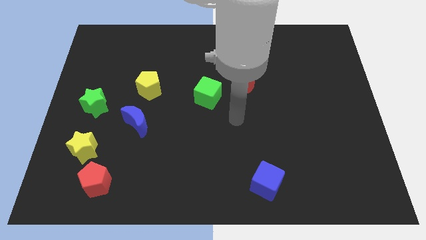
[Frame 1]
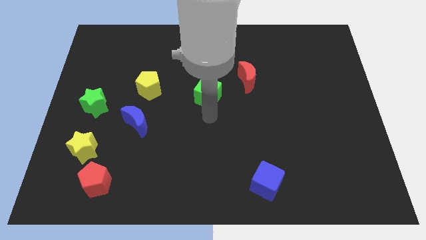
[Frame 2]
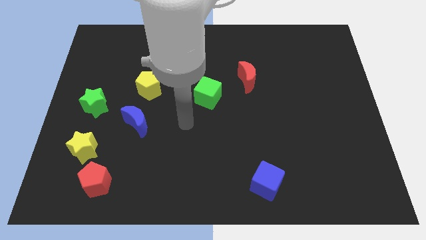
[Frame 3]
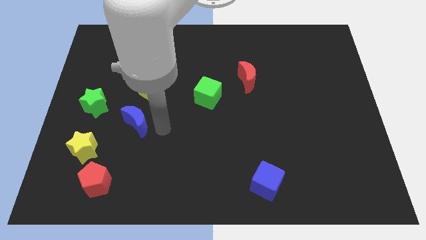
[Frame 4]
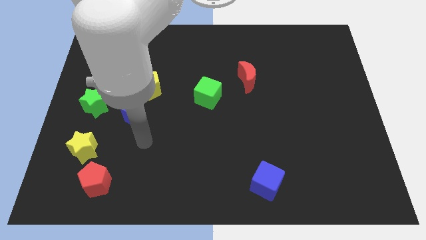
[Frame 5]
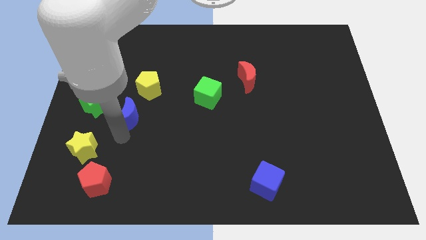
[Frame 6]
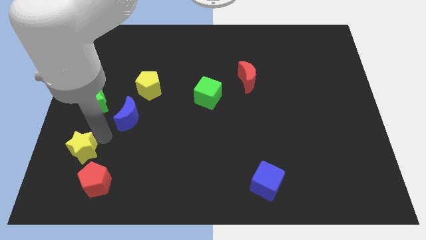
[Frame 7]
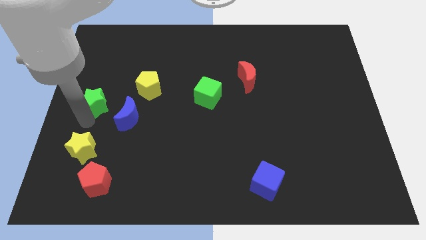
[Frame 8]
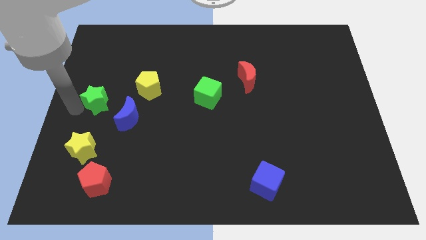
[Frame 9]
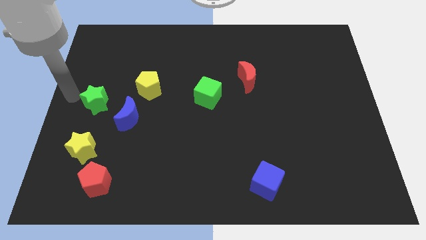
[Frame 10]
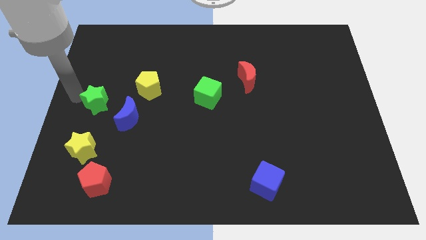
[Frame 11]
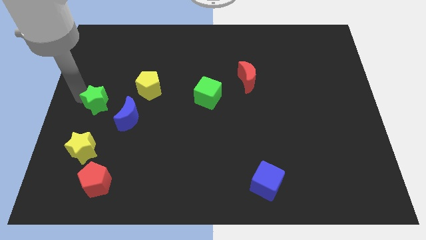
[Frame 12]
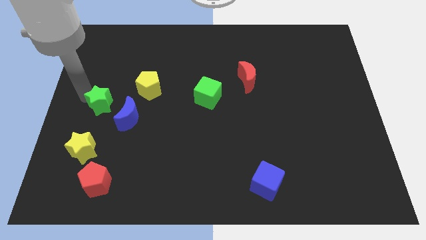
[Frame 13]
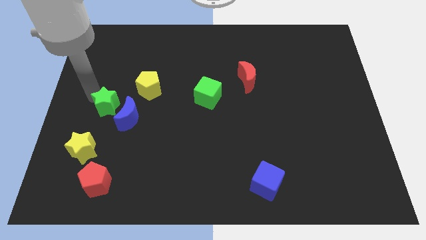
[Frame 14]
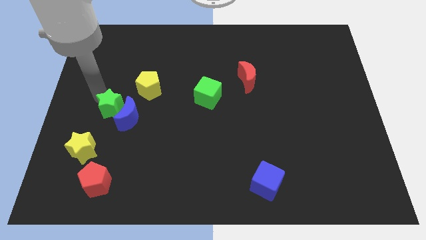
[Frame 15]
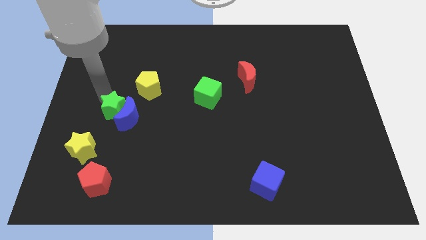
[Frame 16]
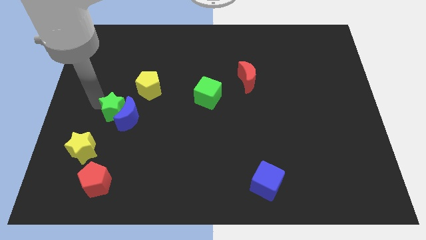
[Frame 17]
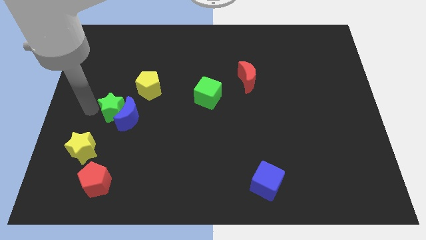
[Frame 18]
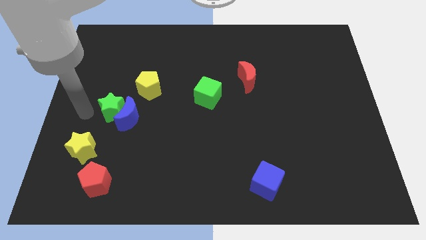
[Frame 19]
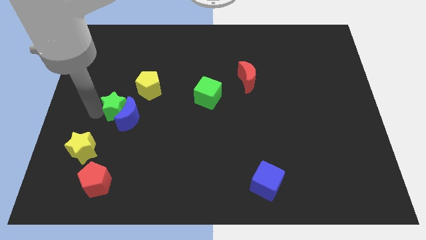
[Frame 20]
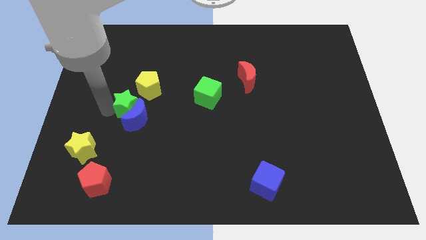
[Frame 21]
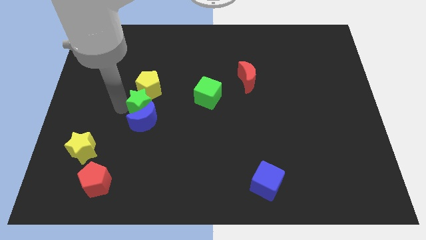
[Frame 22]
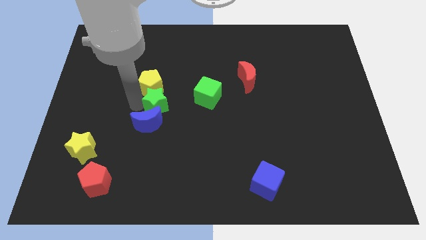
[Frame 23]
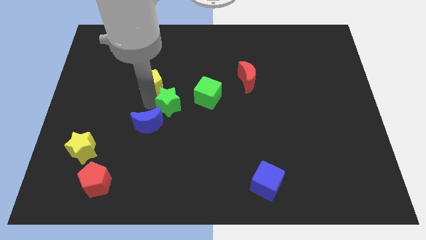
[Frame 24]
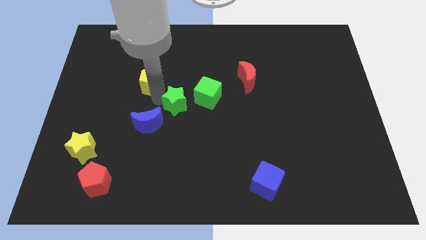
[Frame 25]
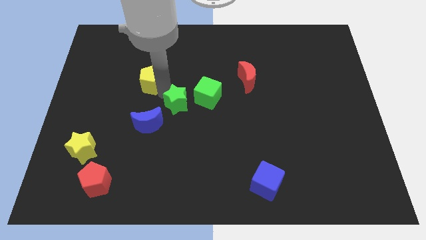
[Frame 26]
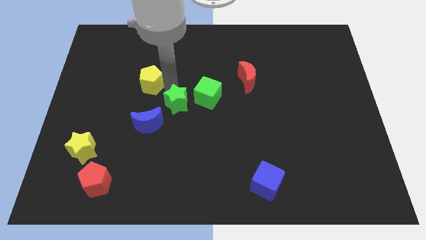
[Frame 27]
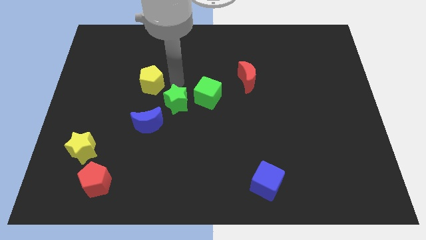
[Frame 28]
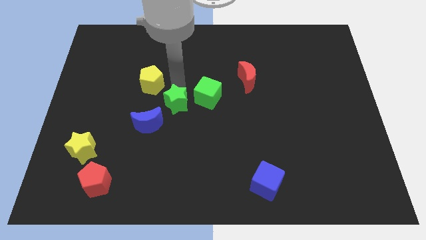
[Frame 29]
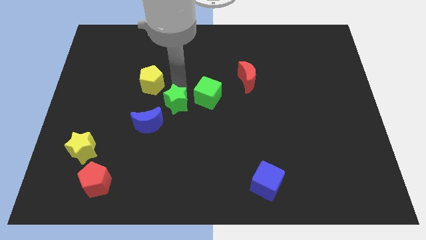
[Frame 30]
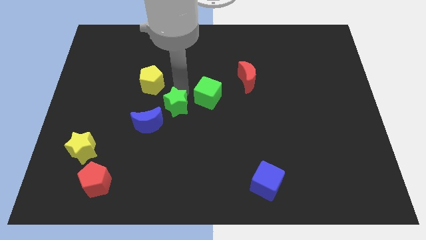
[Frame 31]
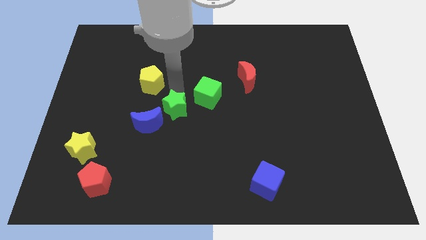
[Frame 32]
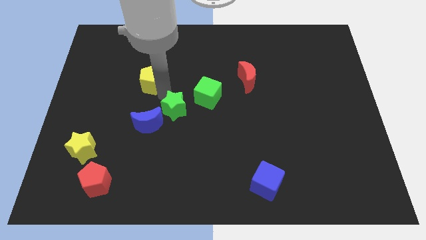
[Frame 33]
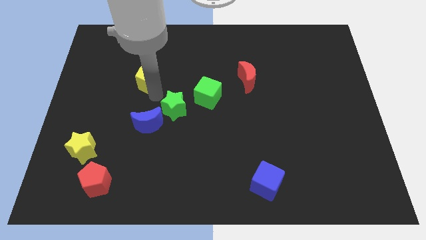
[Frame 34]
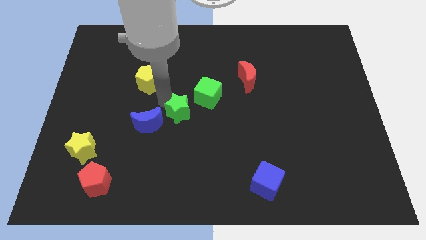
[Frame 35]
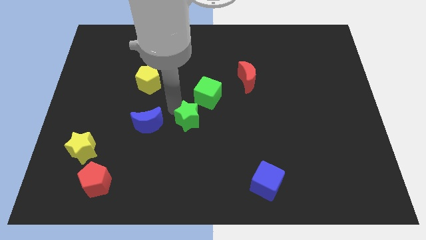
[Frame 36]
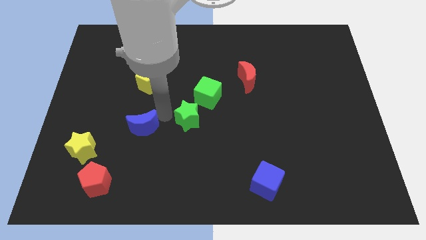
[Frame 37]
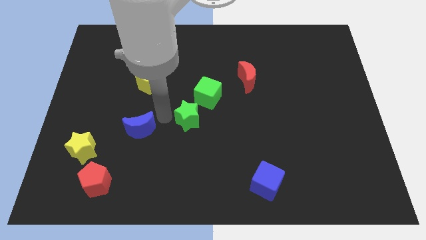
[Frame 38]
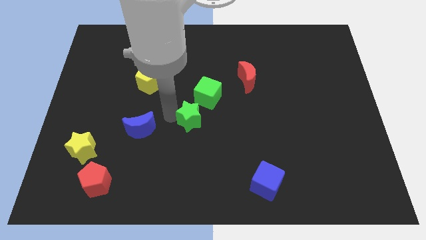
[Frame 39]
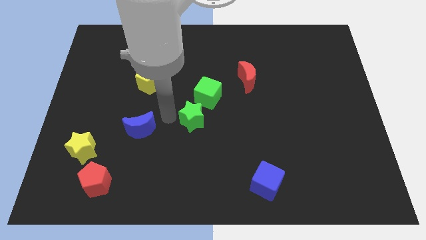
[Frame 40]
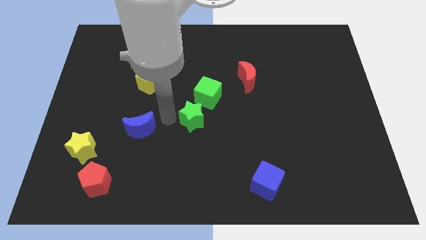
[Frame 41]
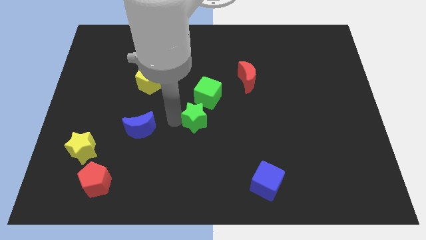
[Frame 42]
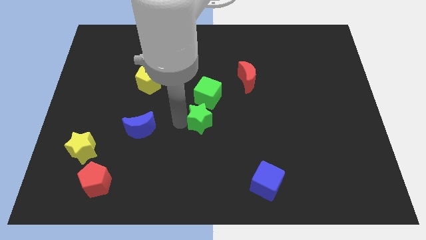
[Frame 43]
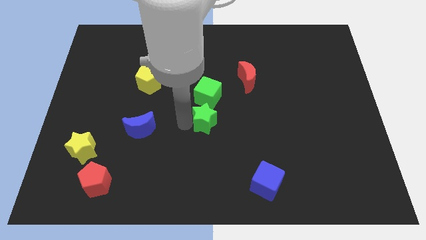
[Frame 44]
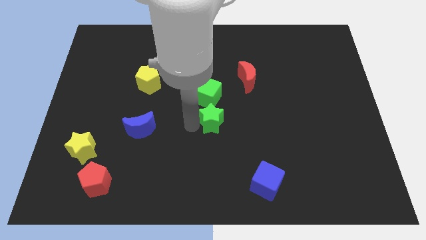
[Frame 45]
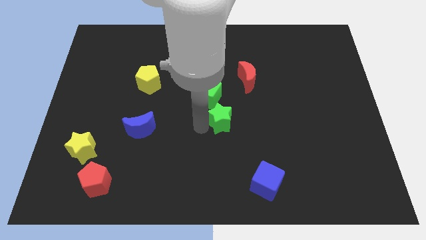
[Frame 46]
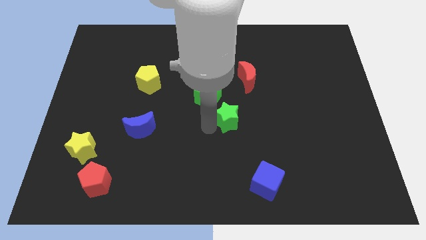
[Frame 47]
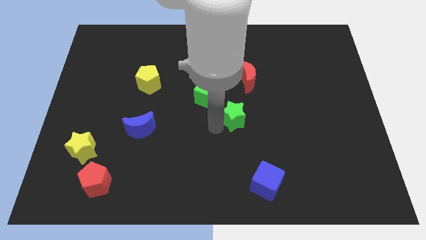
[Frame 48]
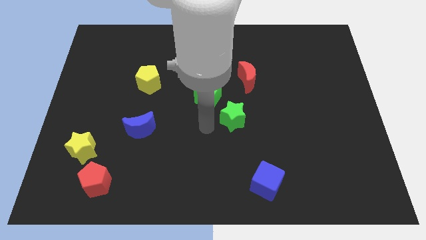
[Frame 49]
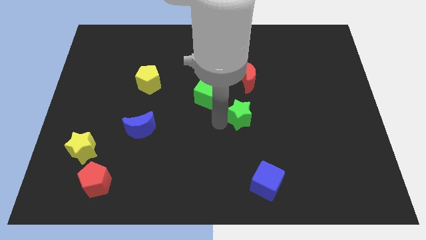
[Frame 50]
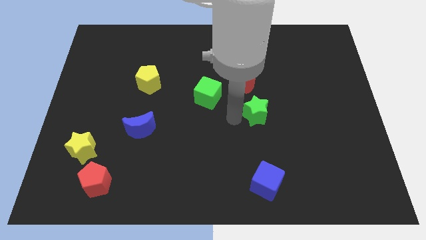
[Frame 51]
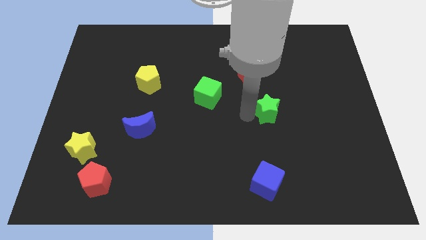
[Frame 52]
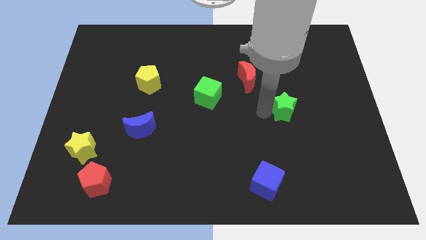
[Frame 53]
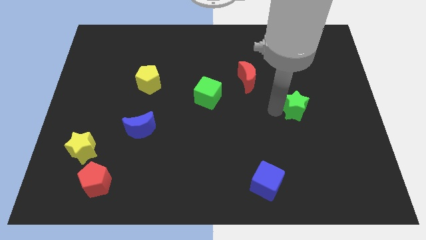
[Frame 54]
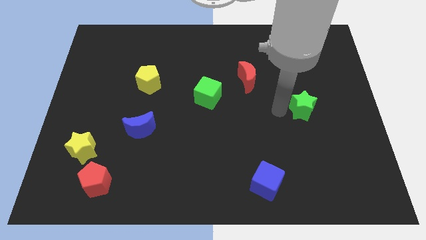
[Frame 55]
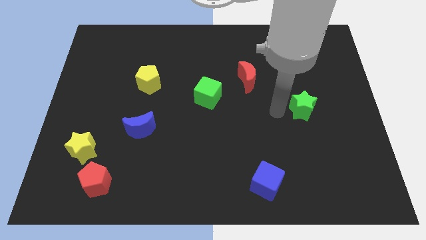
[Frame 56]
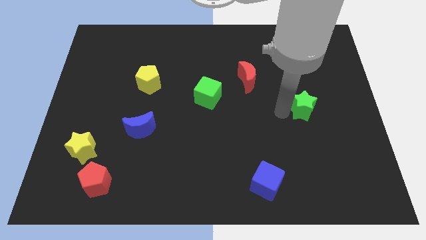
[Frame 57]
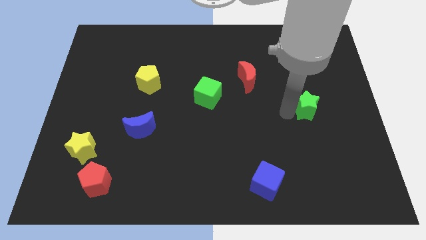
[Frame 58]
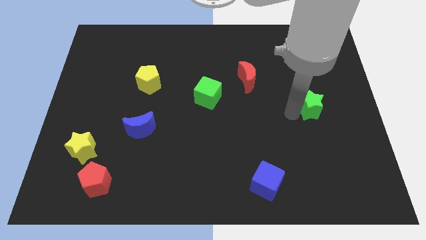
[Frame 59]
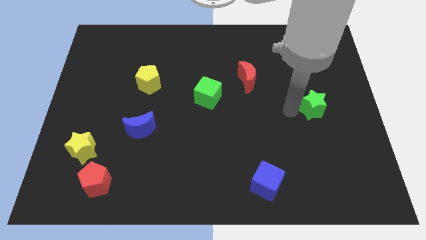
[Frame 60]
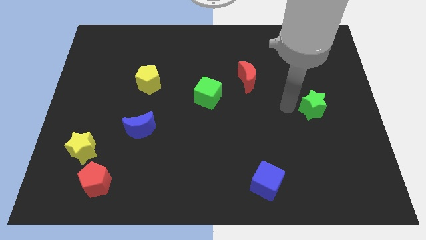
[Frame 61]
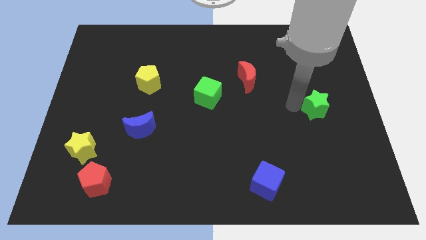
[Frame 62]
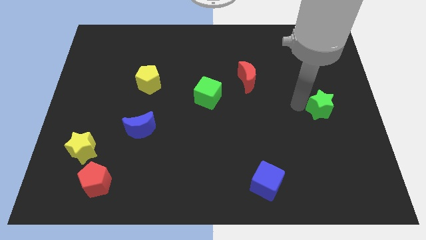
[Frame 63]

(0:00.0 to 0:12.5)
put the green star to the center right

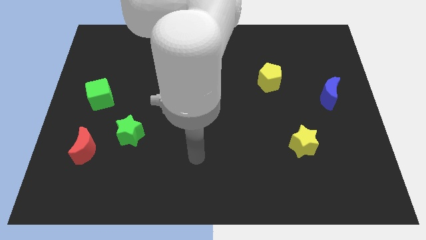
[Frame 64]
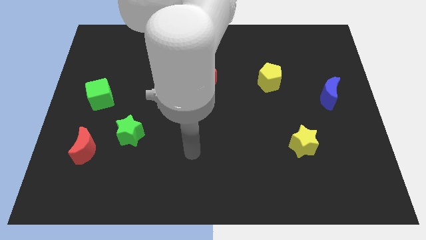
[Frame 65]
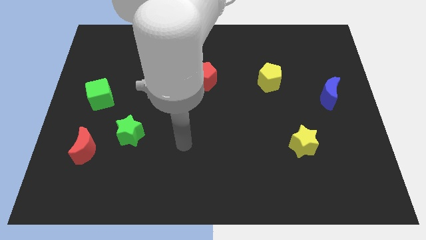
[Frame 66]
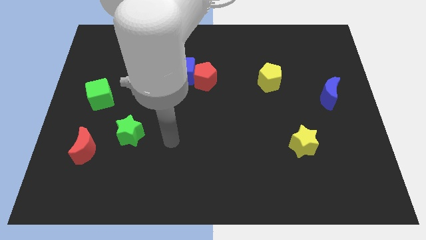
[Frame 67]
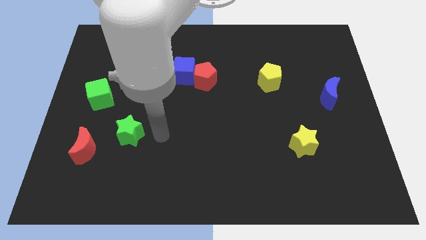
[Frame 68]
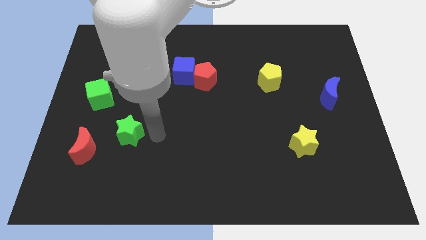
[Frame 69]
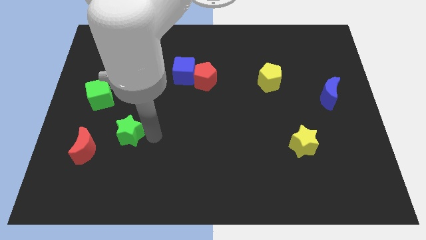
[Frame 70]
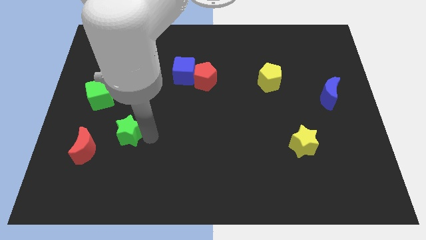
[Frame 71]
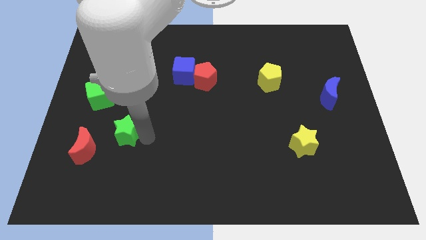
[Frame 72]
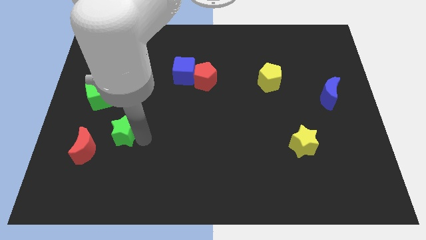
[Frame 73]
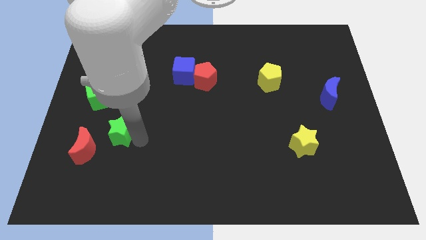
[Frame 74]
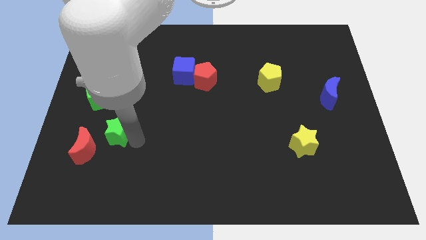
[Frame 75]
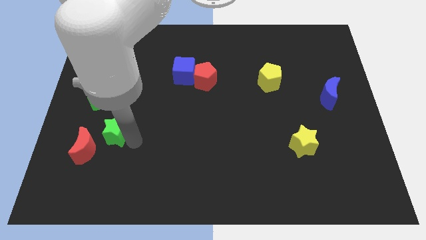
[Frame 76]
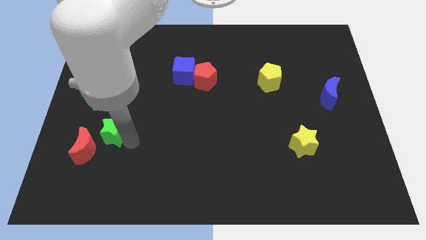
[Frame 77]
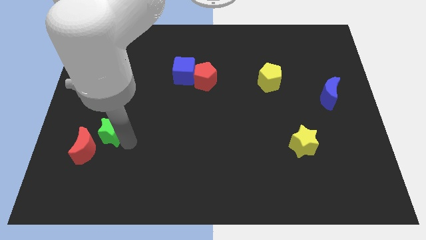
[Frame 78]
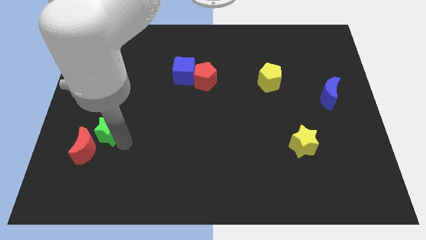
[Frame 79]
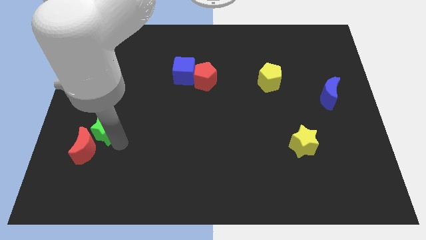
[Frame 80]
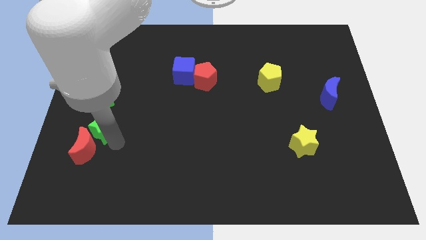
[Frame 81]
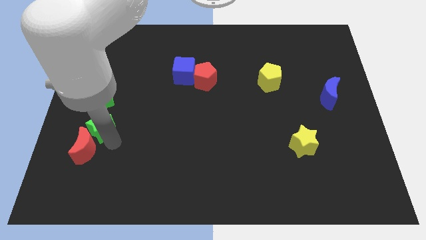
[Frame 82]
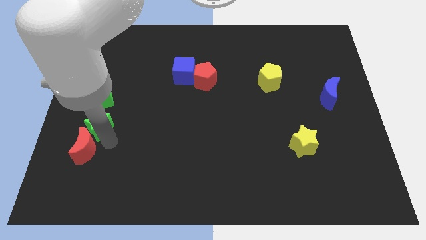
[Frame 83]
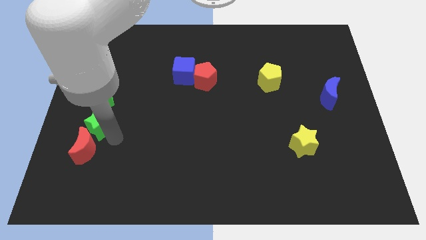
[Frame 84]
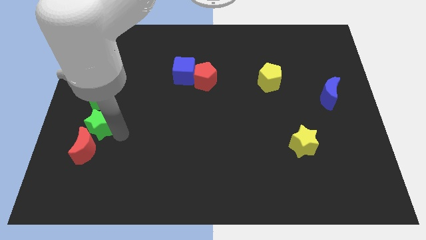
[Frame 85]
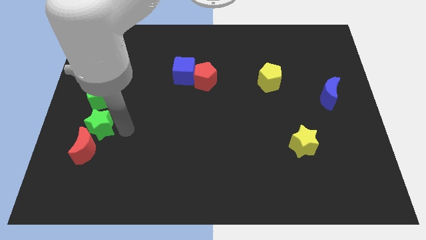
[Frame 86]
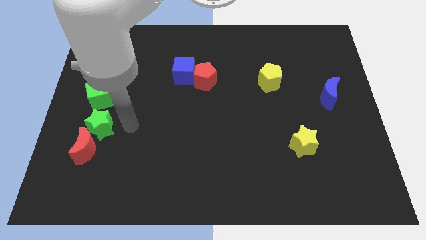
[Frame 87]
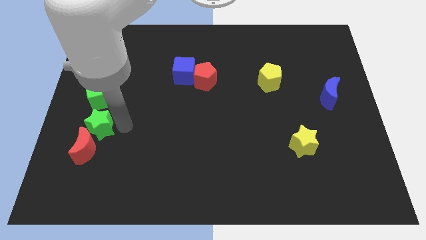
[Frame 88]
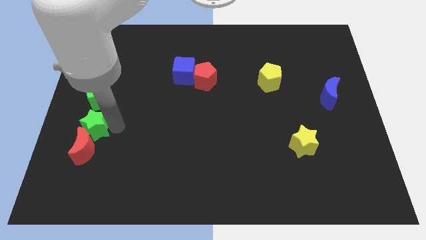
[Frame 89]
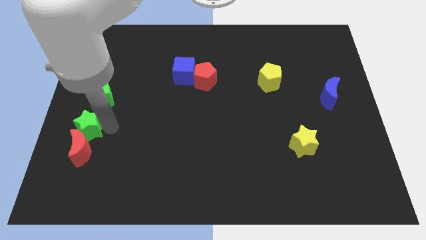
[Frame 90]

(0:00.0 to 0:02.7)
slide the green star to the left side of the board
